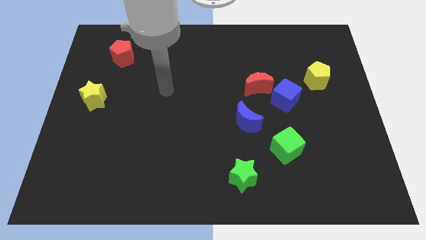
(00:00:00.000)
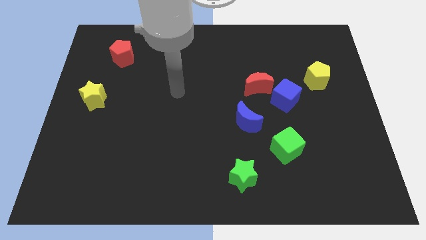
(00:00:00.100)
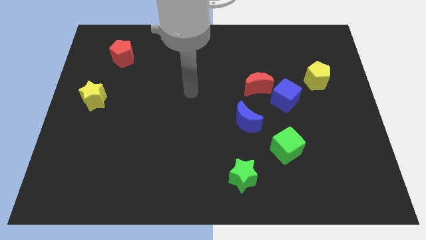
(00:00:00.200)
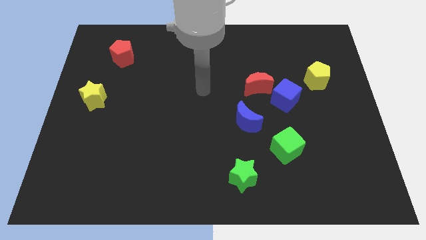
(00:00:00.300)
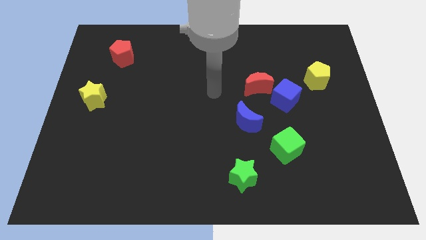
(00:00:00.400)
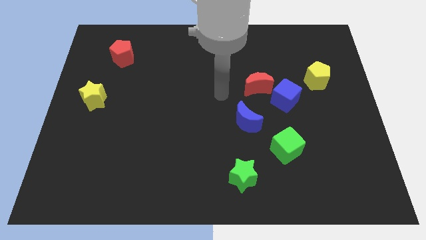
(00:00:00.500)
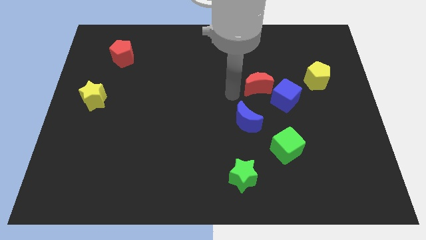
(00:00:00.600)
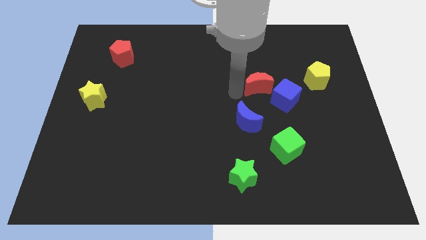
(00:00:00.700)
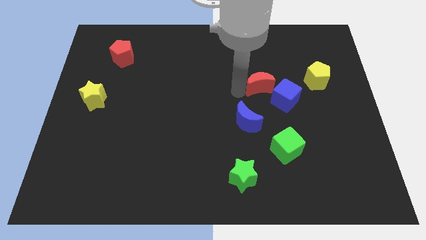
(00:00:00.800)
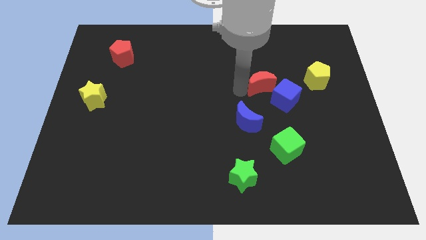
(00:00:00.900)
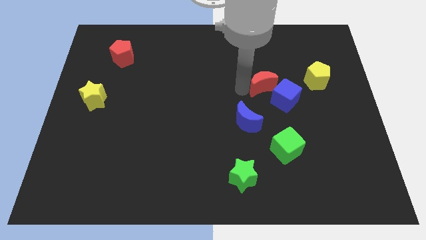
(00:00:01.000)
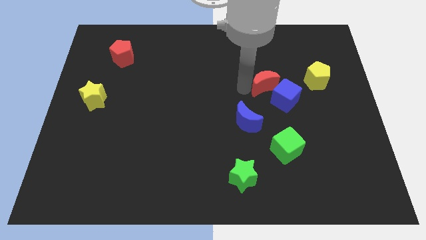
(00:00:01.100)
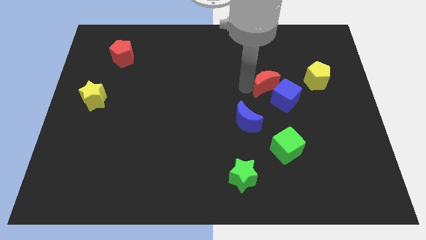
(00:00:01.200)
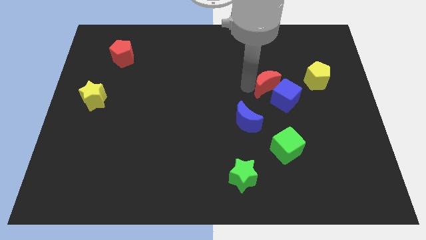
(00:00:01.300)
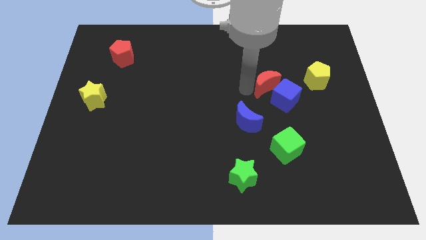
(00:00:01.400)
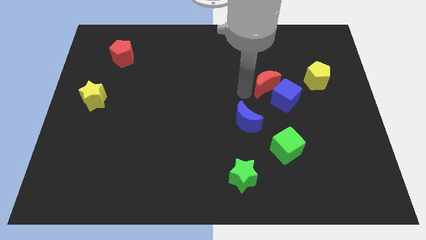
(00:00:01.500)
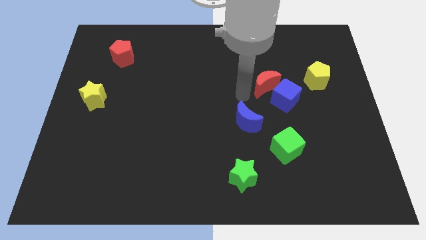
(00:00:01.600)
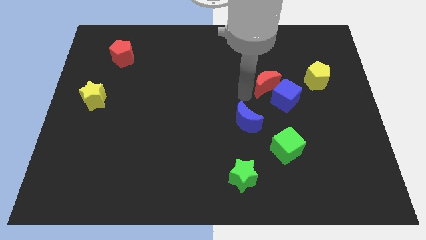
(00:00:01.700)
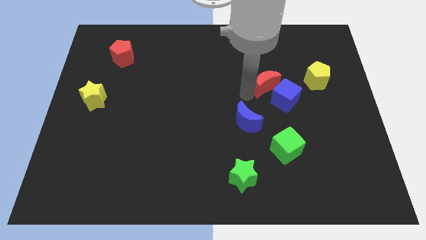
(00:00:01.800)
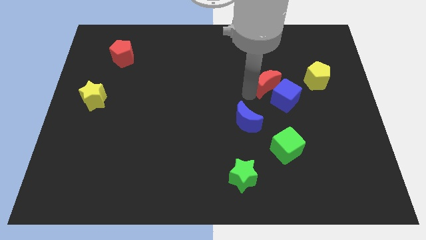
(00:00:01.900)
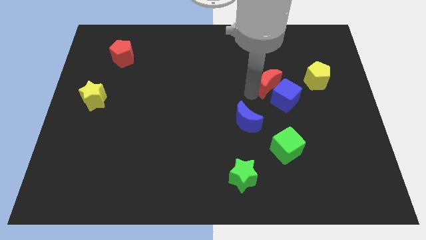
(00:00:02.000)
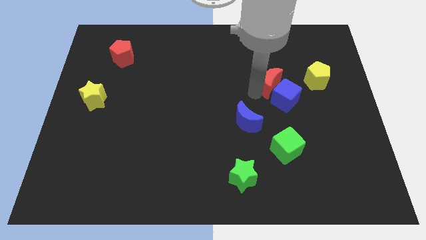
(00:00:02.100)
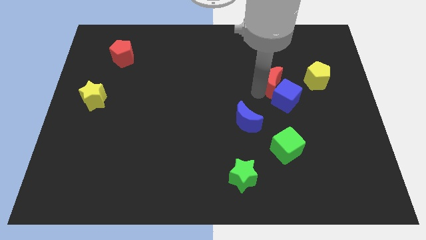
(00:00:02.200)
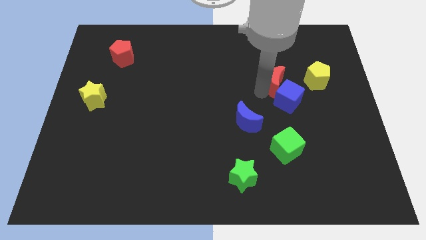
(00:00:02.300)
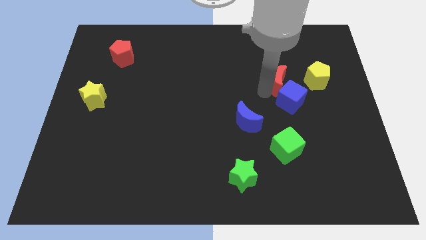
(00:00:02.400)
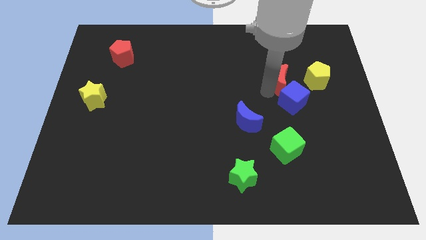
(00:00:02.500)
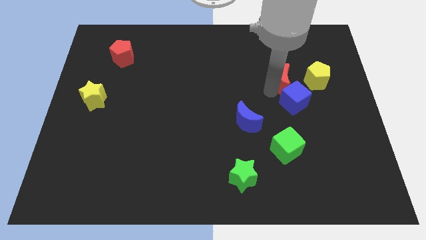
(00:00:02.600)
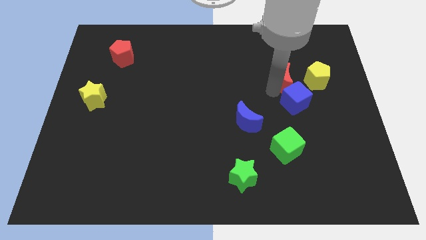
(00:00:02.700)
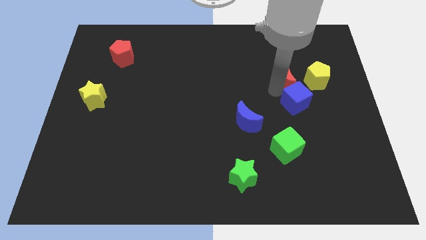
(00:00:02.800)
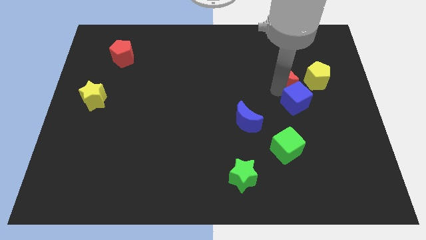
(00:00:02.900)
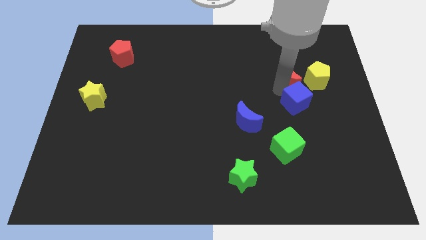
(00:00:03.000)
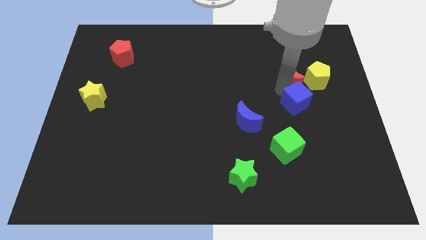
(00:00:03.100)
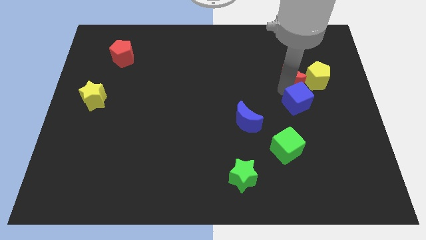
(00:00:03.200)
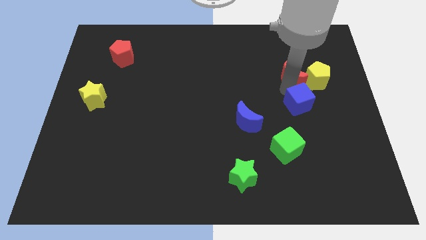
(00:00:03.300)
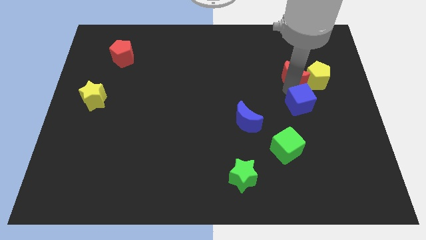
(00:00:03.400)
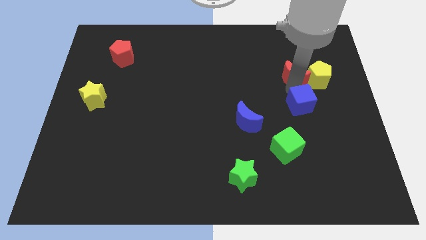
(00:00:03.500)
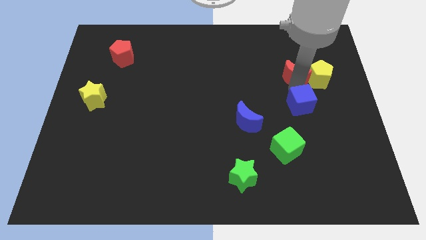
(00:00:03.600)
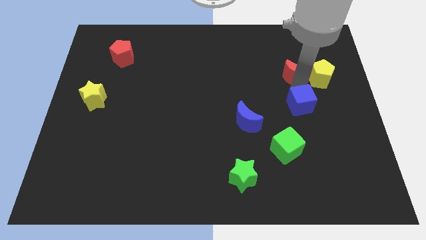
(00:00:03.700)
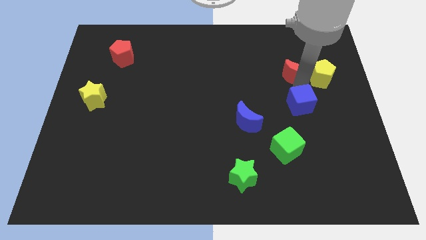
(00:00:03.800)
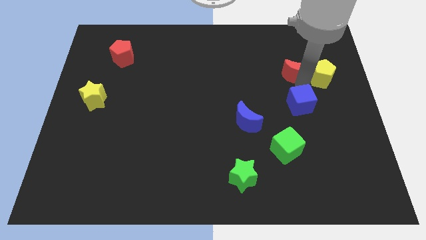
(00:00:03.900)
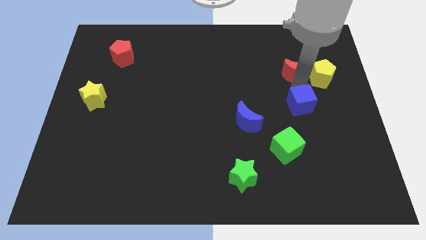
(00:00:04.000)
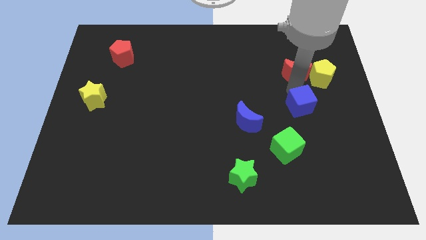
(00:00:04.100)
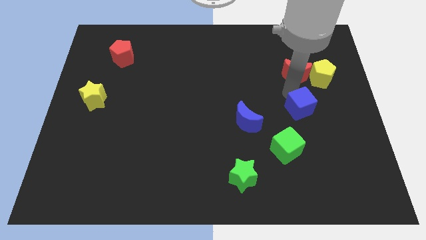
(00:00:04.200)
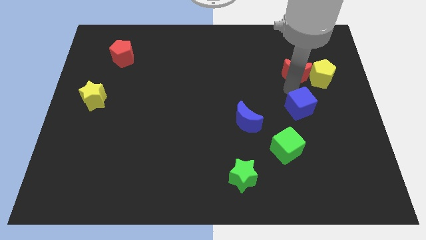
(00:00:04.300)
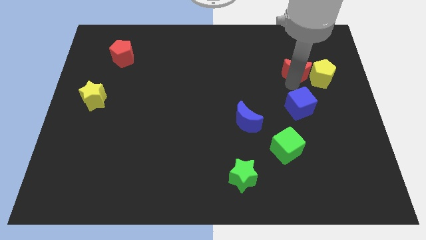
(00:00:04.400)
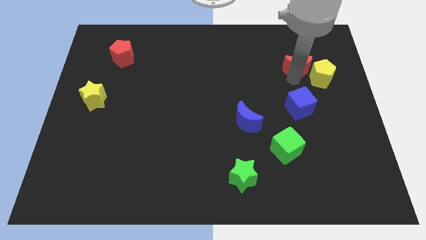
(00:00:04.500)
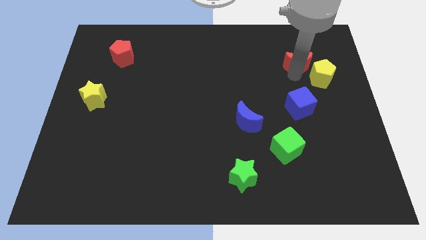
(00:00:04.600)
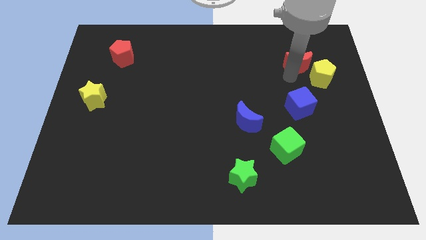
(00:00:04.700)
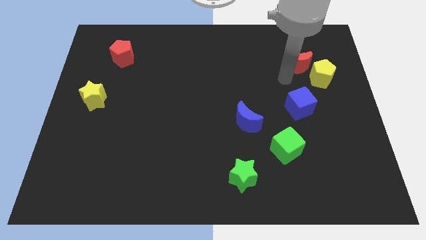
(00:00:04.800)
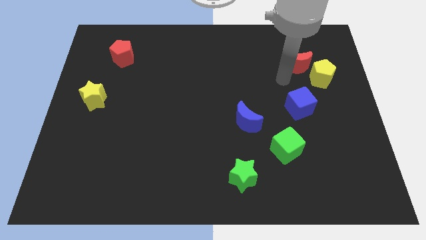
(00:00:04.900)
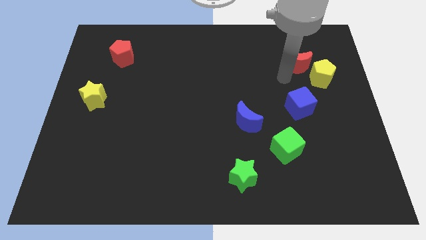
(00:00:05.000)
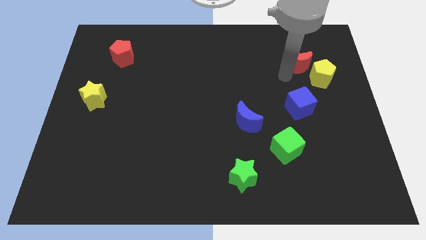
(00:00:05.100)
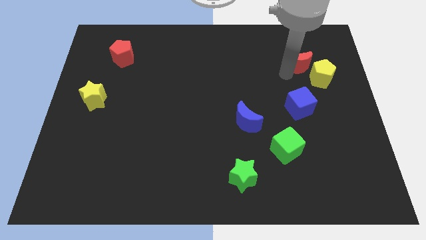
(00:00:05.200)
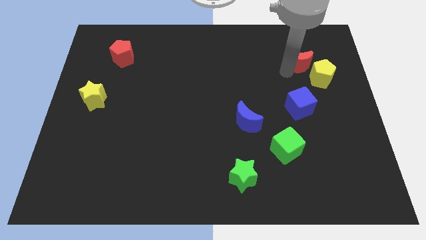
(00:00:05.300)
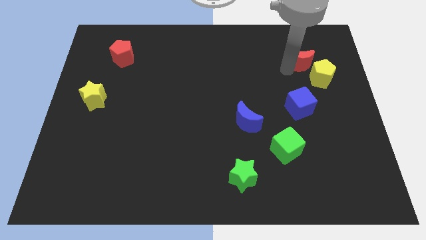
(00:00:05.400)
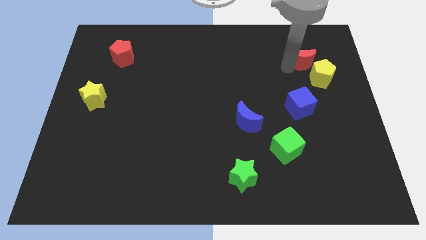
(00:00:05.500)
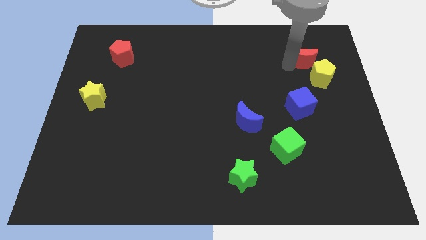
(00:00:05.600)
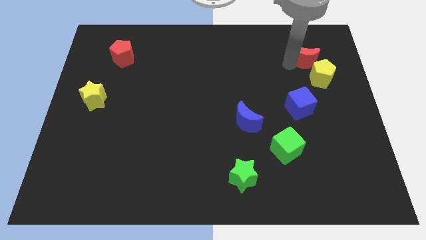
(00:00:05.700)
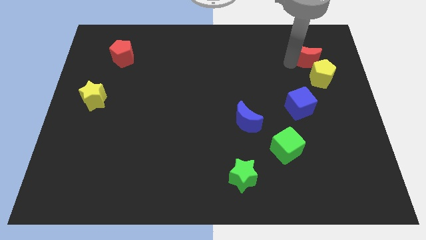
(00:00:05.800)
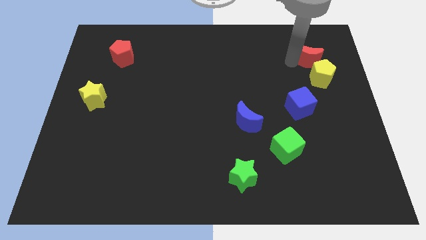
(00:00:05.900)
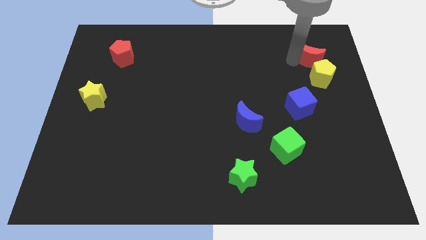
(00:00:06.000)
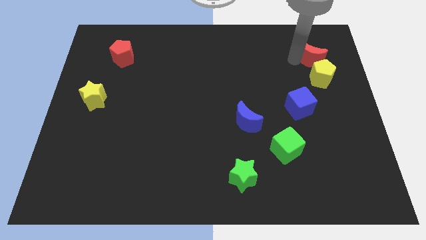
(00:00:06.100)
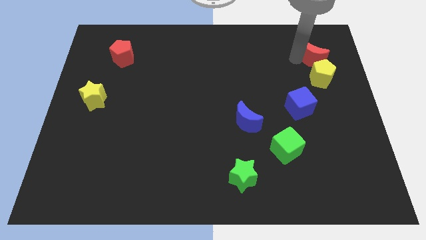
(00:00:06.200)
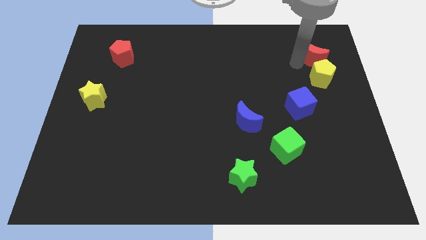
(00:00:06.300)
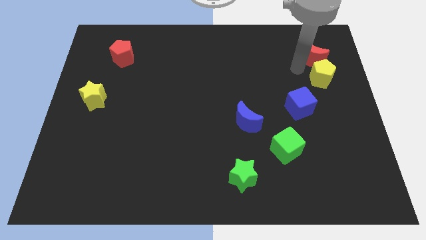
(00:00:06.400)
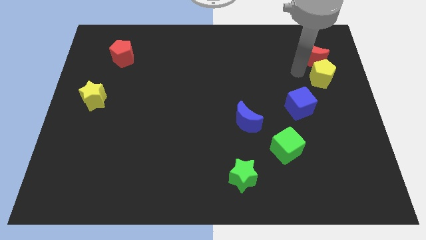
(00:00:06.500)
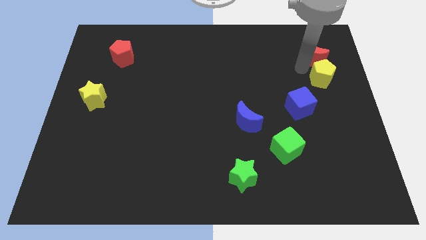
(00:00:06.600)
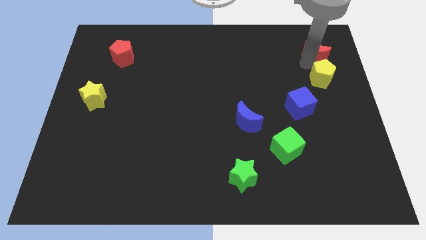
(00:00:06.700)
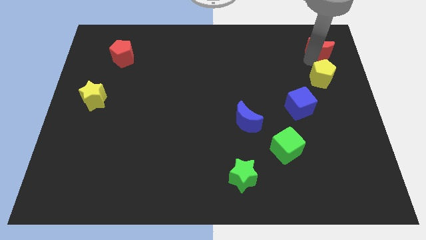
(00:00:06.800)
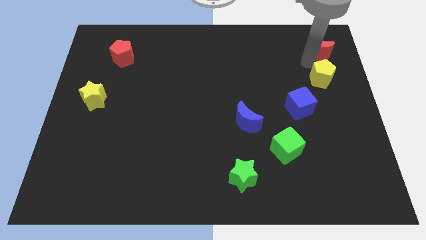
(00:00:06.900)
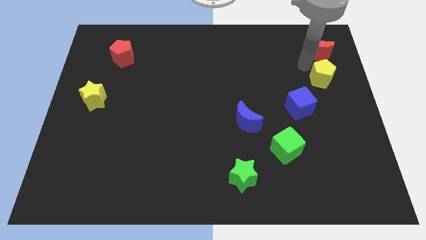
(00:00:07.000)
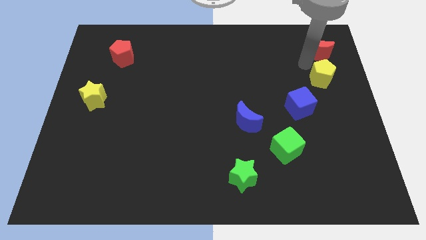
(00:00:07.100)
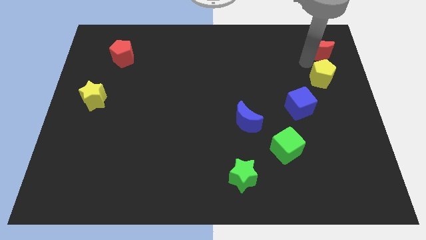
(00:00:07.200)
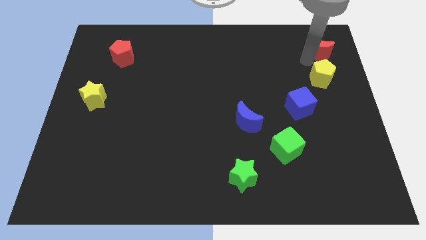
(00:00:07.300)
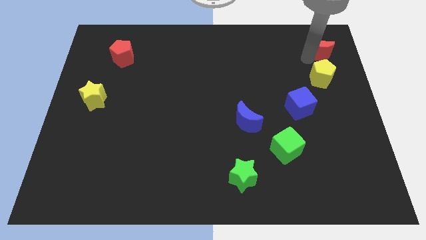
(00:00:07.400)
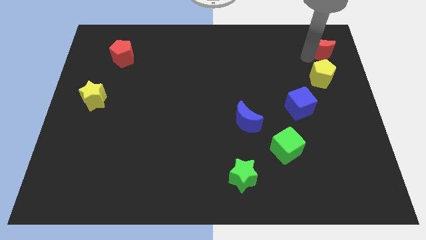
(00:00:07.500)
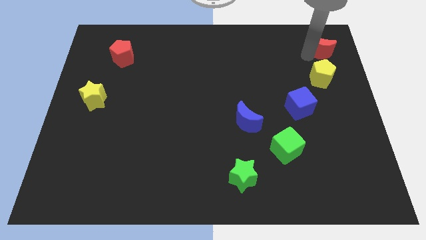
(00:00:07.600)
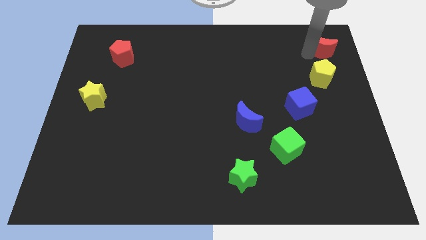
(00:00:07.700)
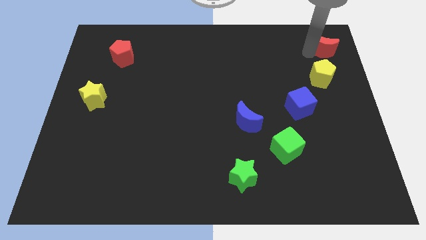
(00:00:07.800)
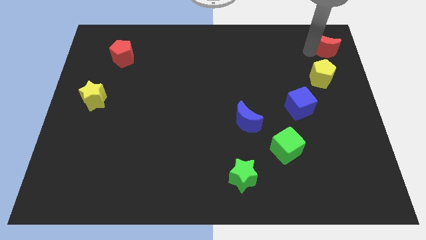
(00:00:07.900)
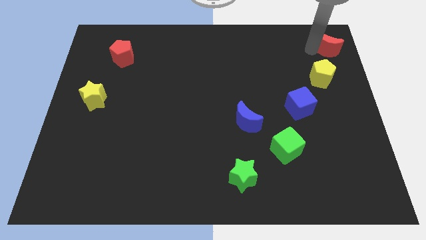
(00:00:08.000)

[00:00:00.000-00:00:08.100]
push the red moon to the top right corner
